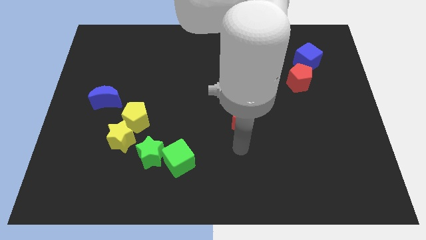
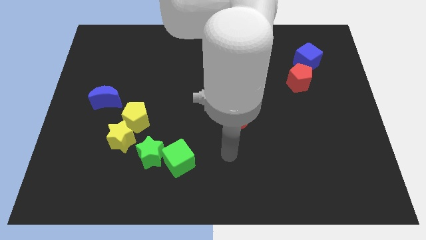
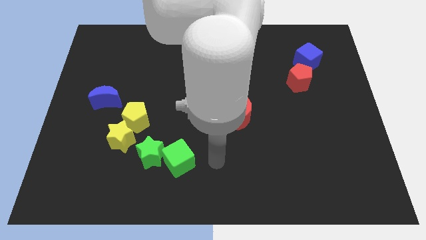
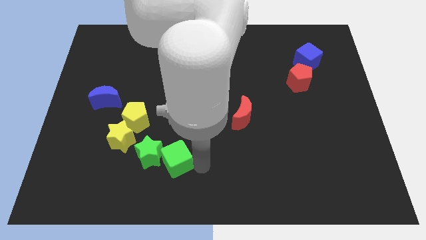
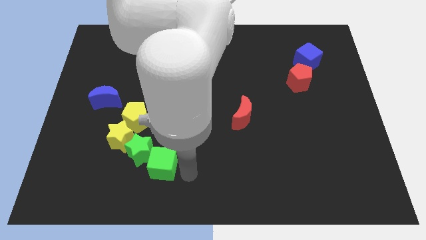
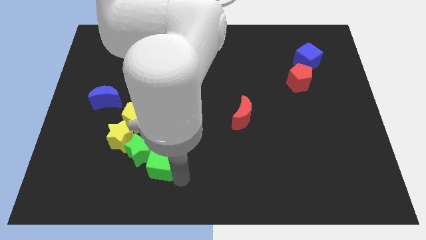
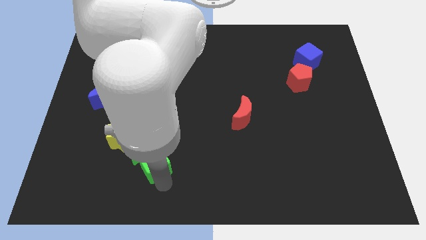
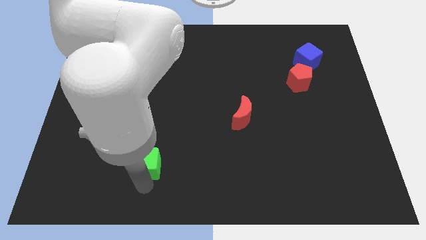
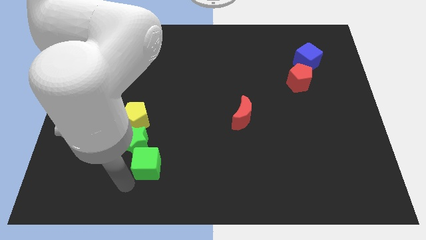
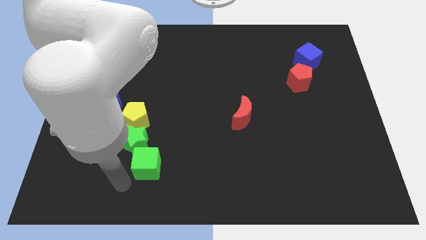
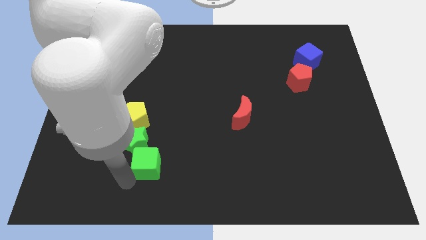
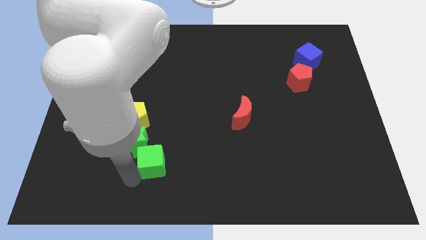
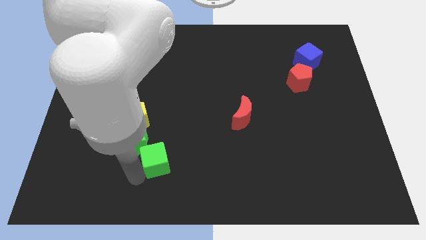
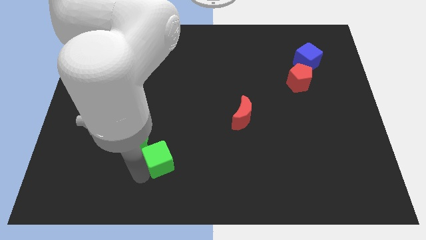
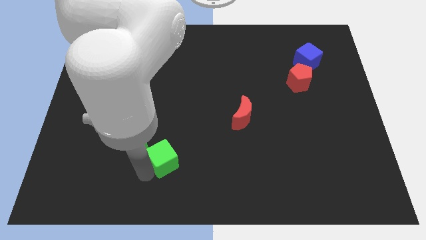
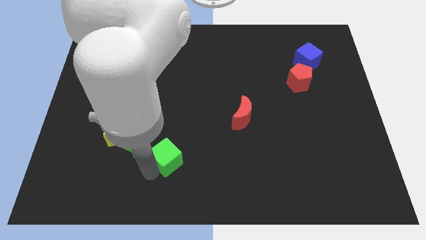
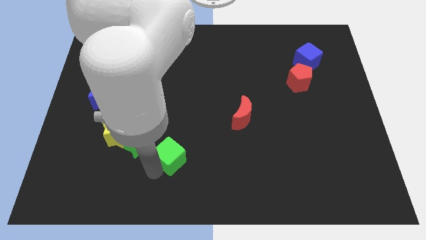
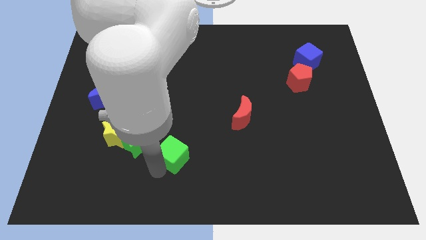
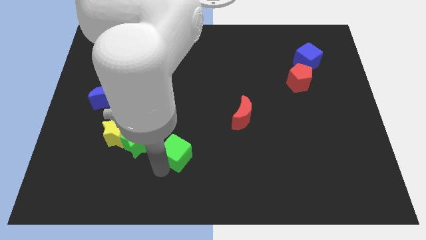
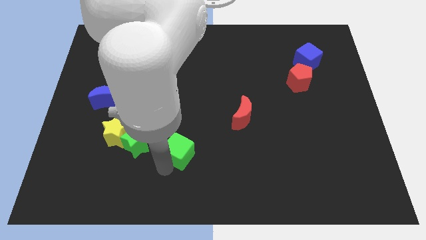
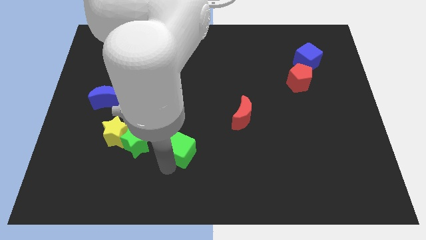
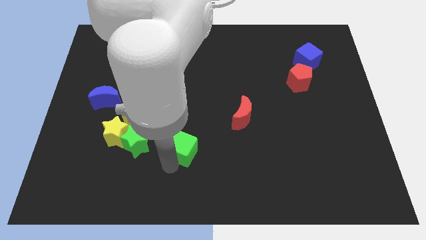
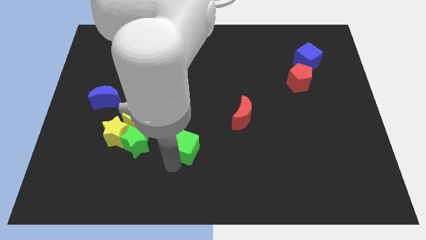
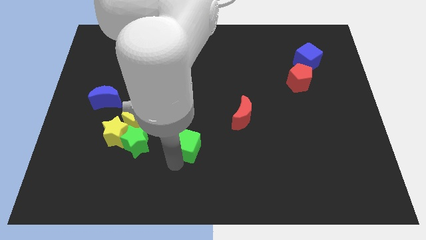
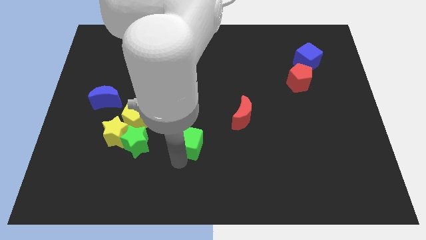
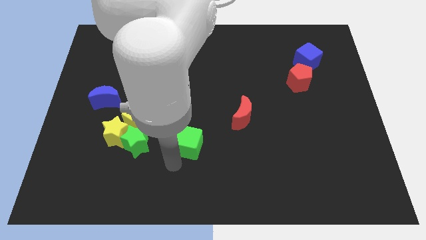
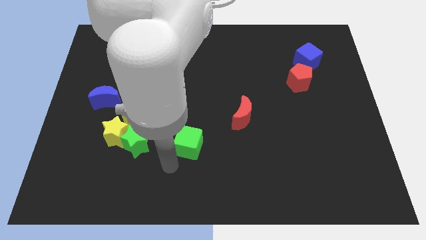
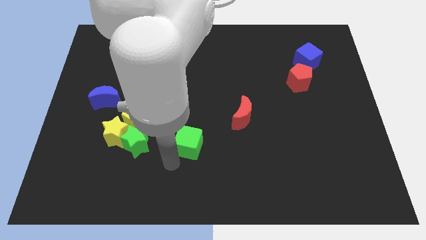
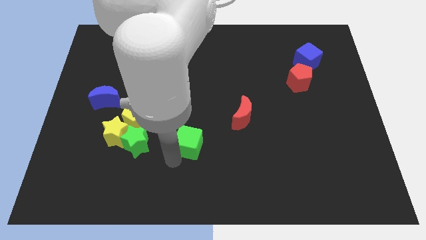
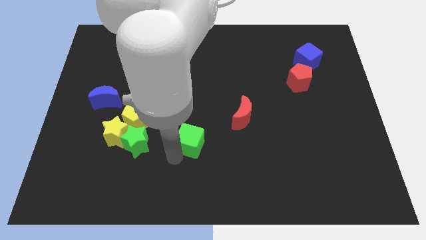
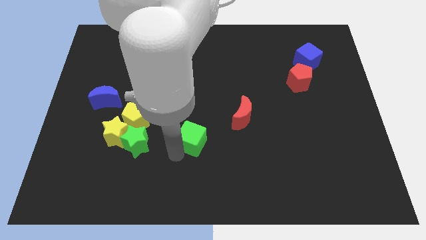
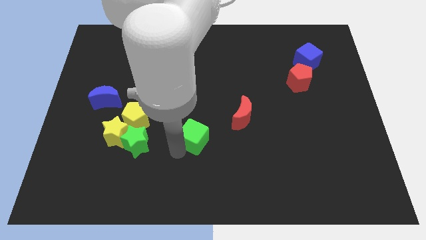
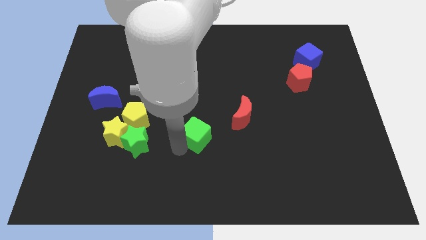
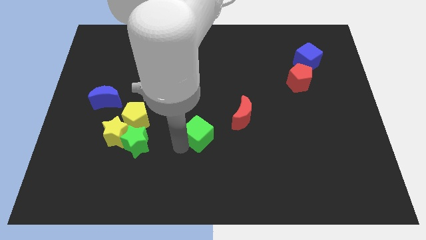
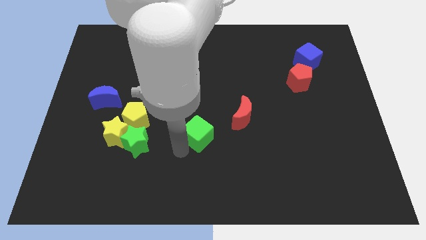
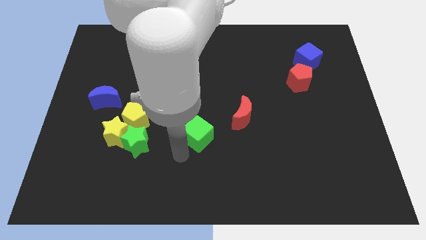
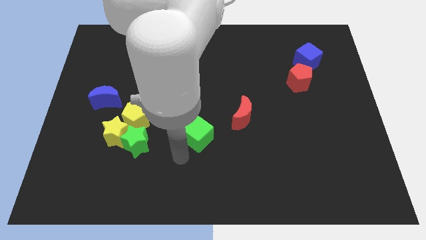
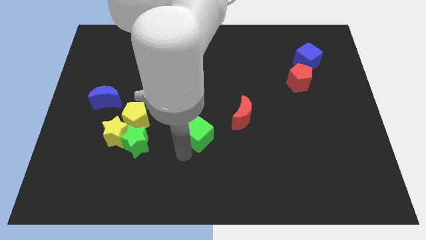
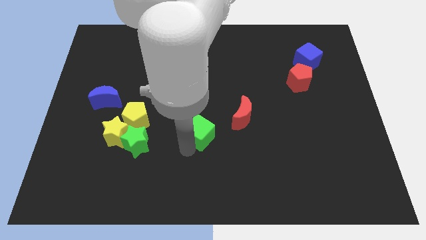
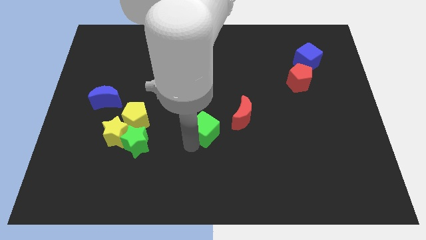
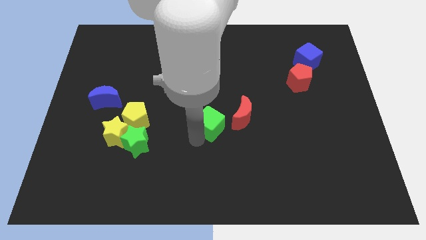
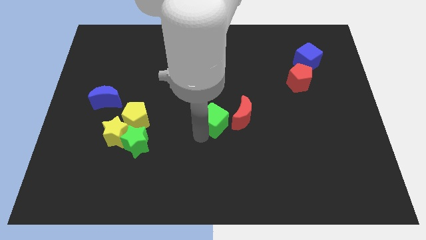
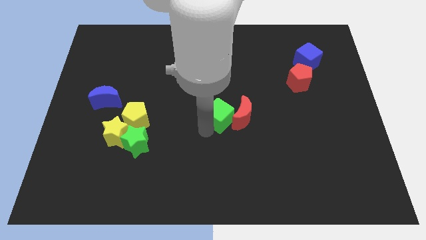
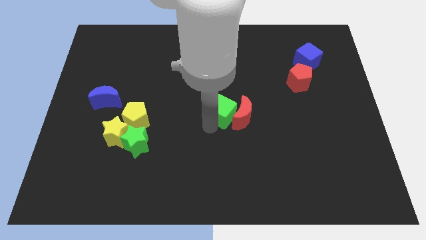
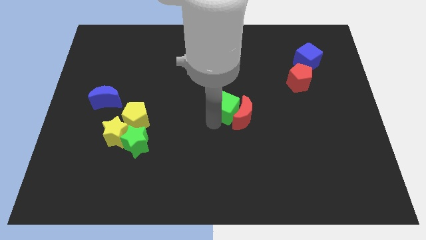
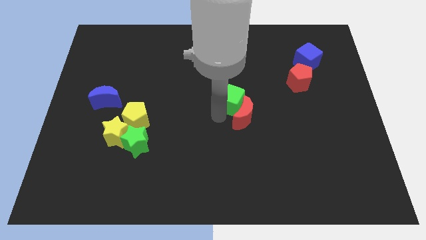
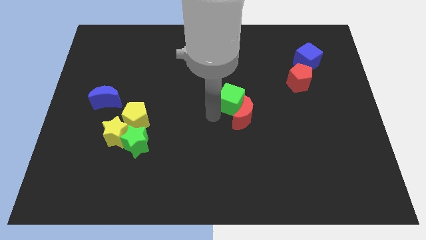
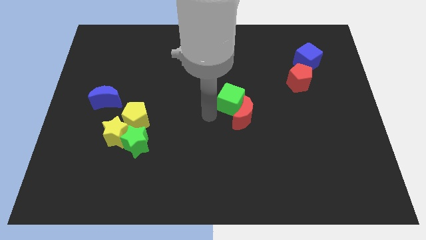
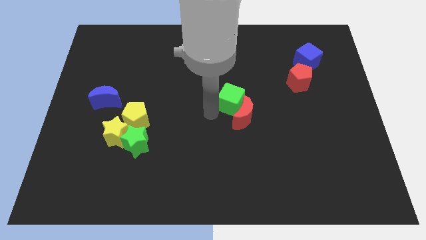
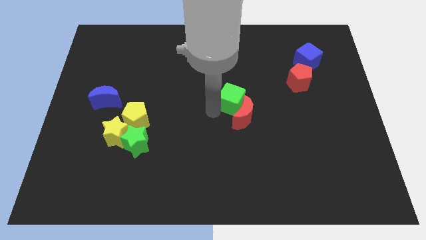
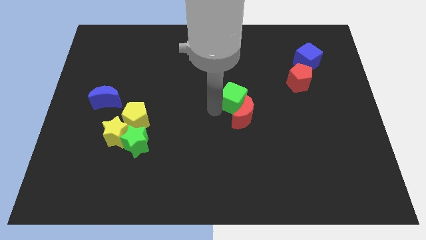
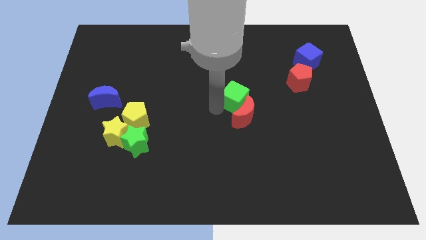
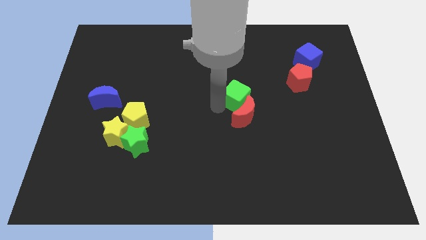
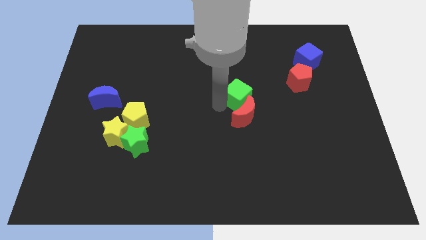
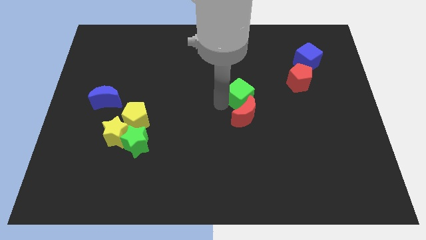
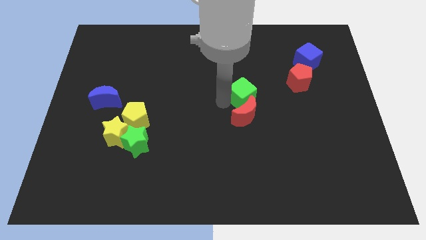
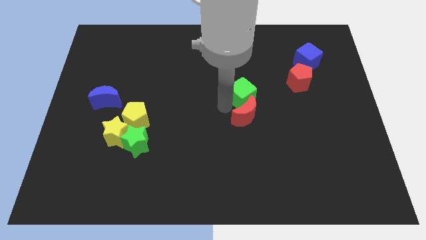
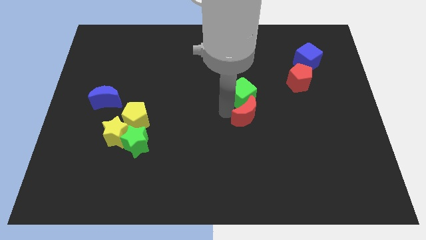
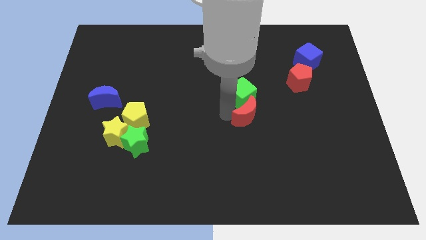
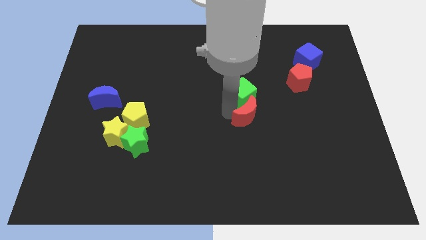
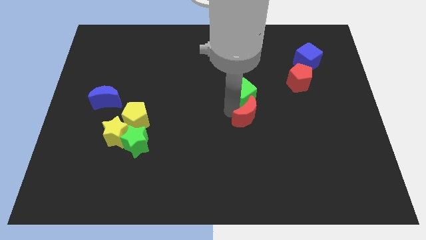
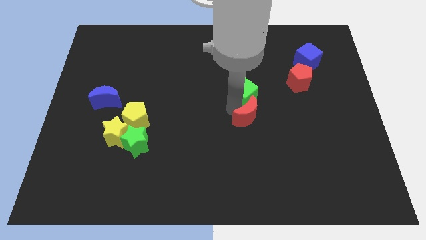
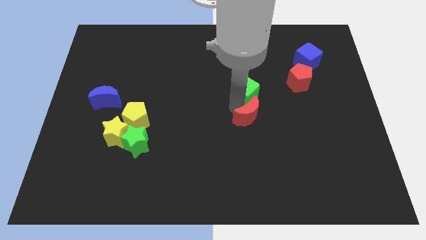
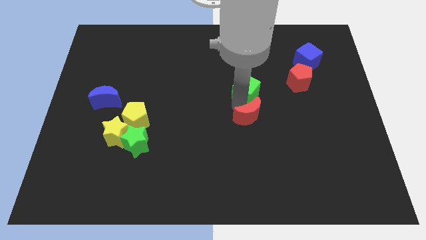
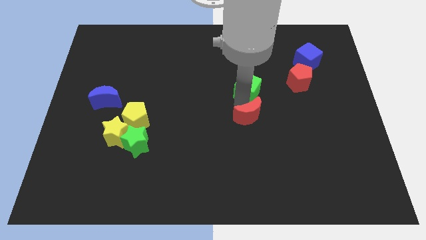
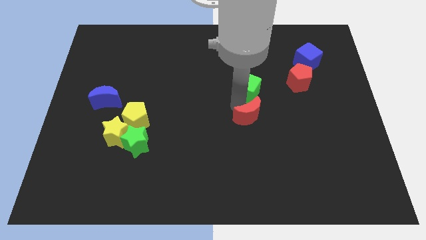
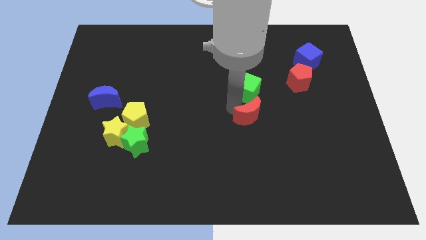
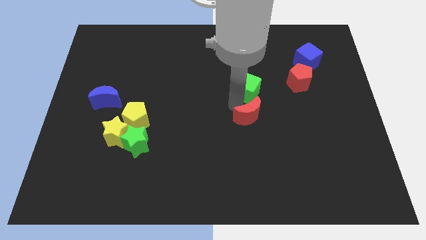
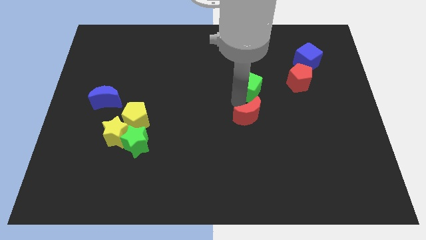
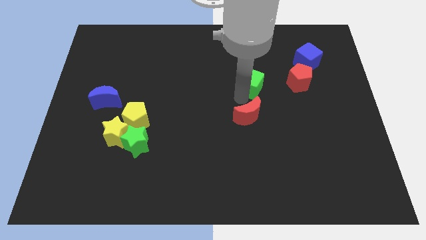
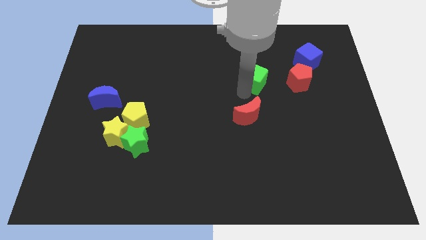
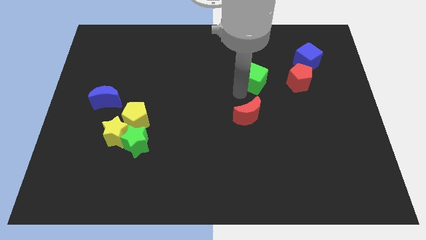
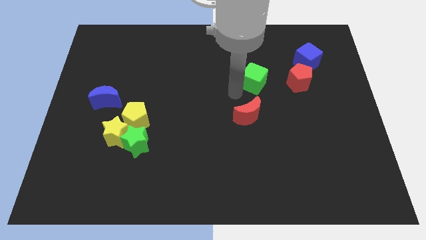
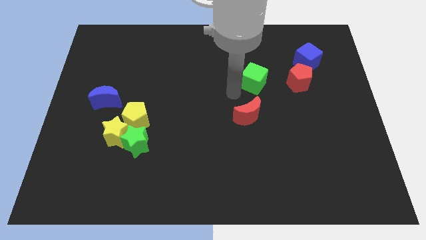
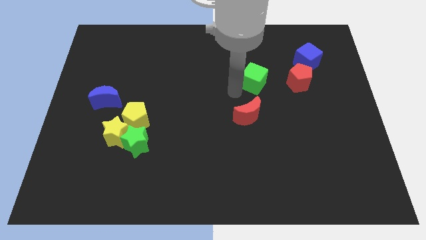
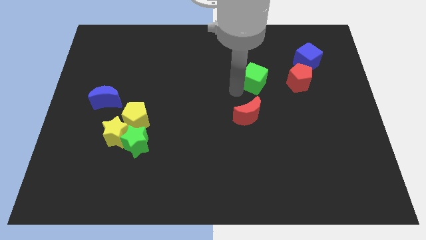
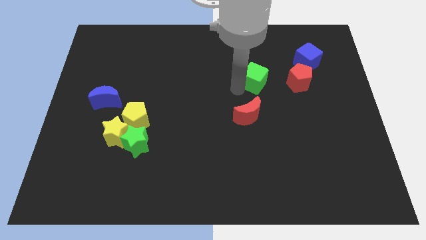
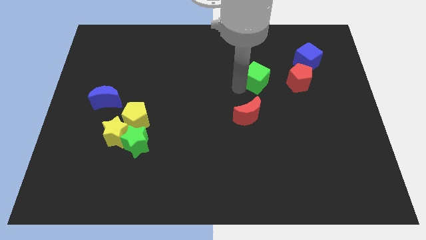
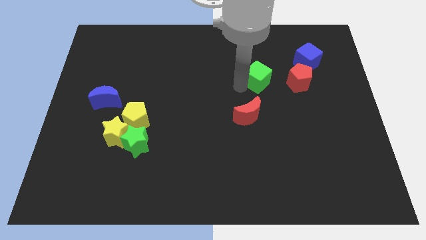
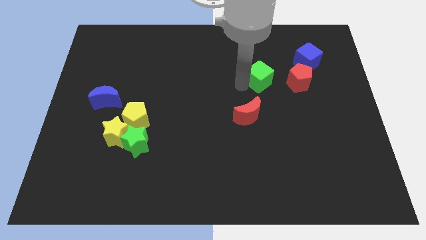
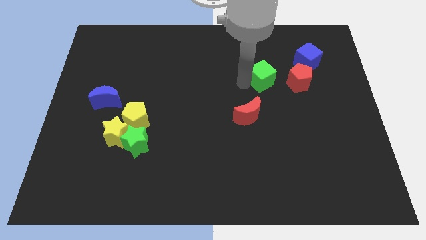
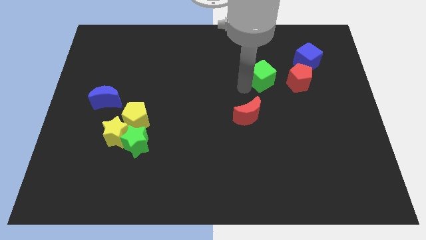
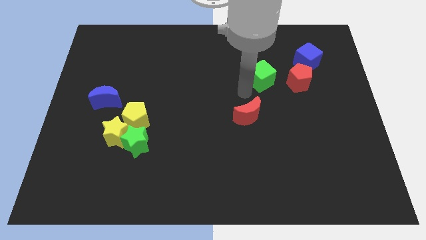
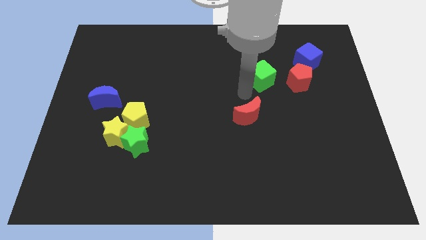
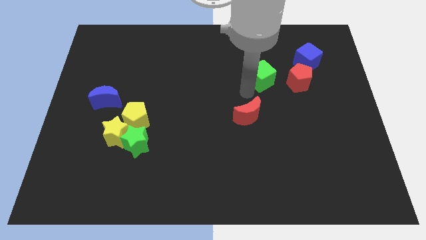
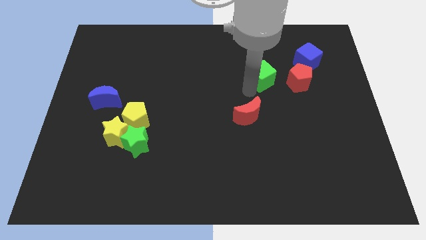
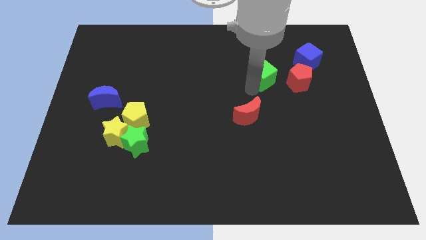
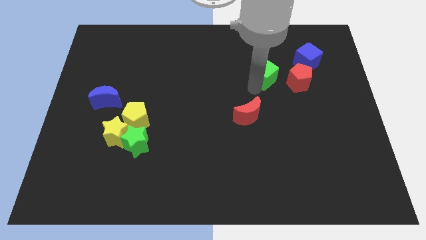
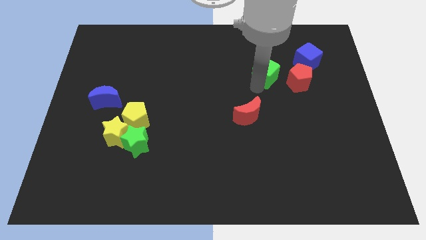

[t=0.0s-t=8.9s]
put the green cube diagonally up and to the left of the red pentagon
